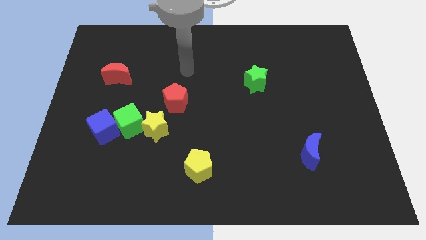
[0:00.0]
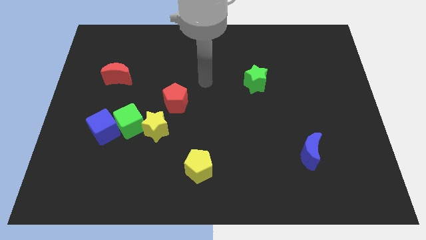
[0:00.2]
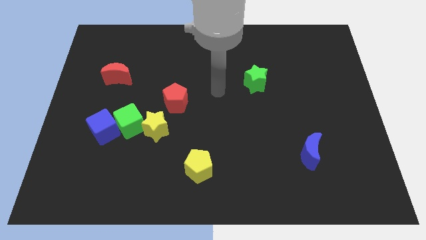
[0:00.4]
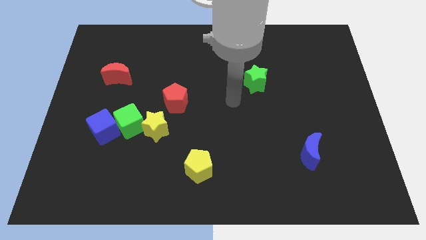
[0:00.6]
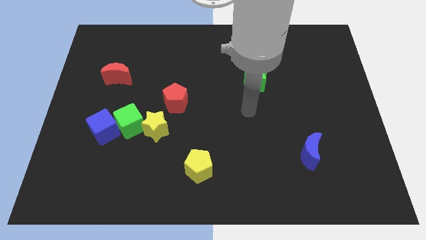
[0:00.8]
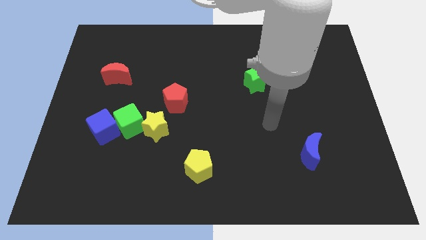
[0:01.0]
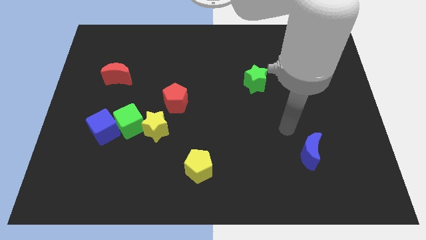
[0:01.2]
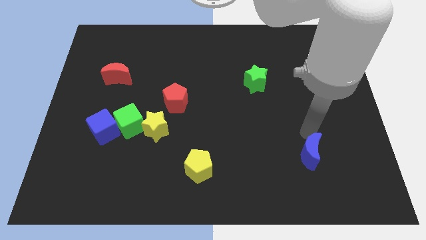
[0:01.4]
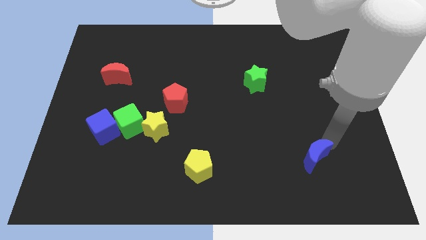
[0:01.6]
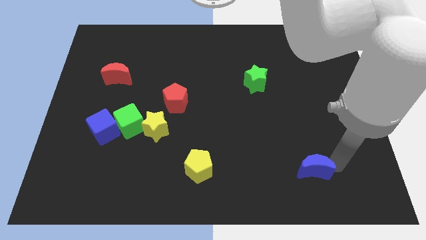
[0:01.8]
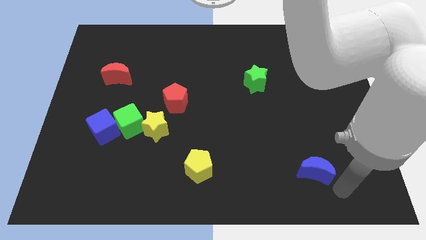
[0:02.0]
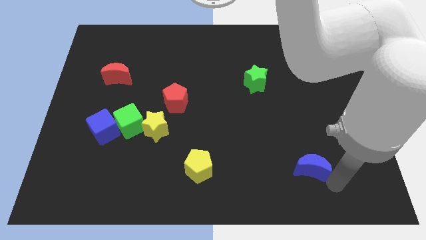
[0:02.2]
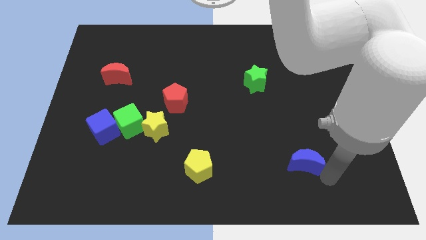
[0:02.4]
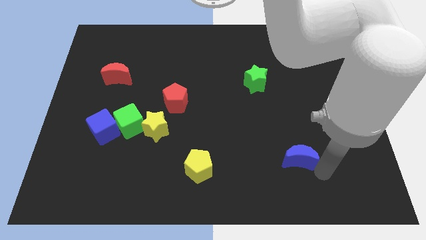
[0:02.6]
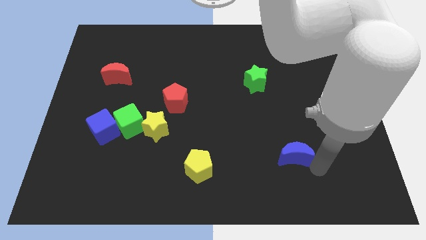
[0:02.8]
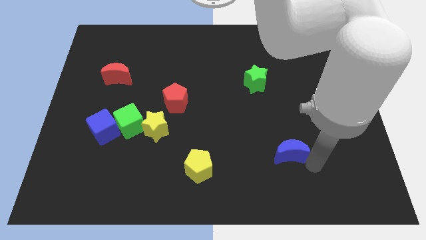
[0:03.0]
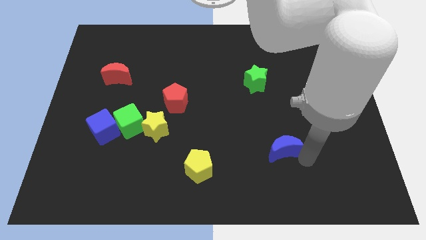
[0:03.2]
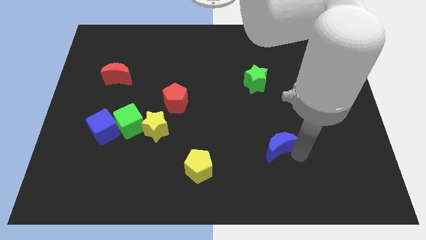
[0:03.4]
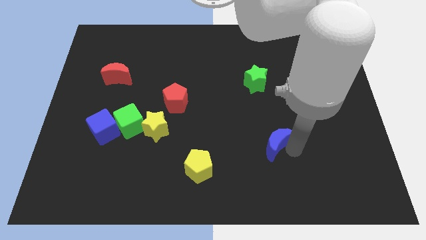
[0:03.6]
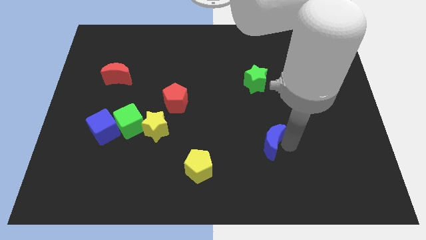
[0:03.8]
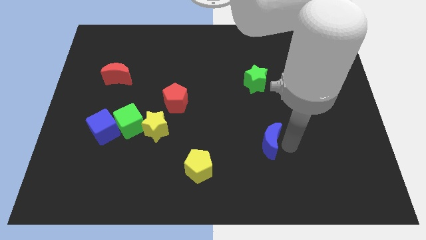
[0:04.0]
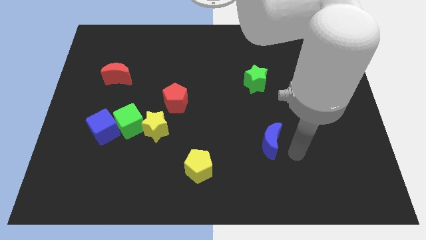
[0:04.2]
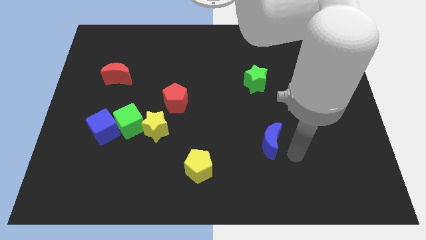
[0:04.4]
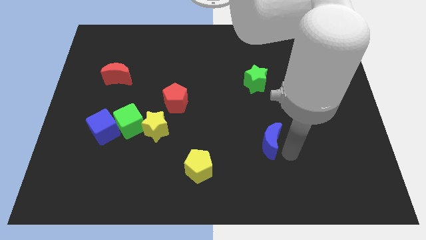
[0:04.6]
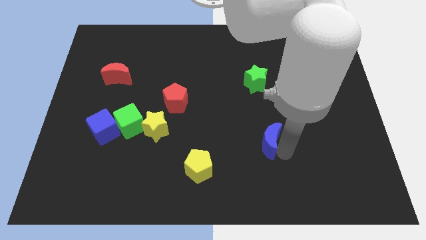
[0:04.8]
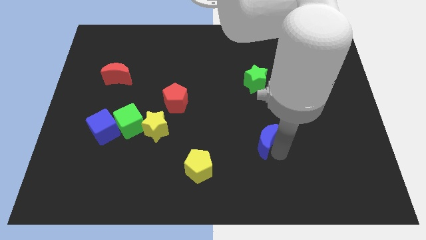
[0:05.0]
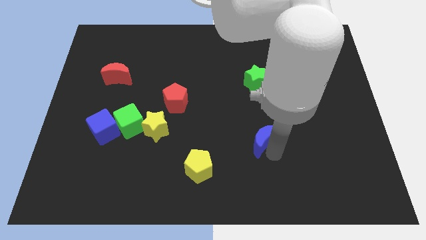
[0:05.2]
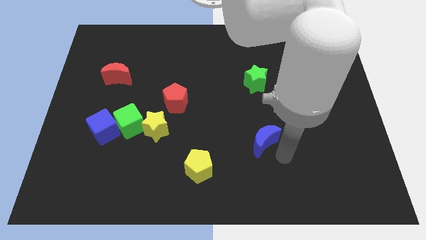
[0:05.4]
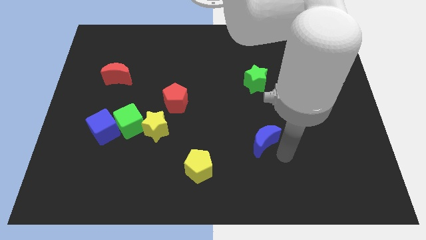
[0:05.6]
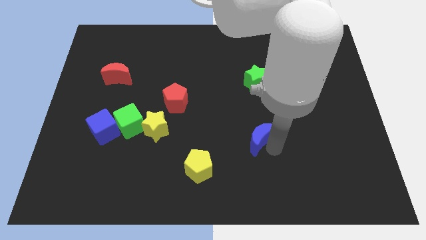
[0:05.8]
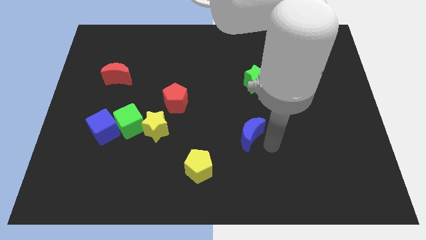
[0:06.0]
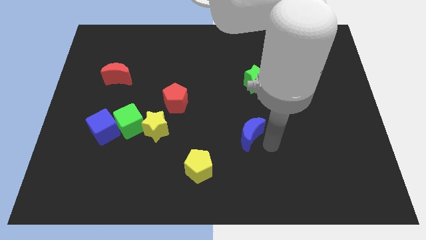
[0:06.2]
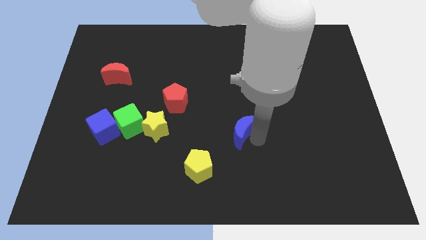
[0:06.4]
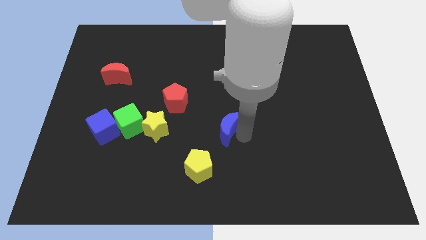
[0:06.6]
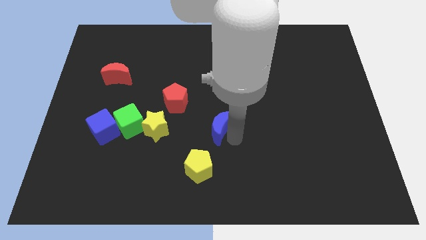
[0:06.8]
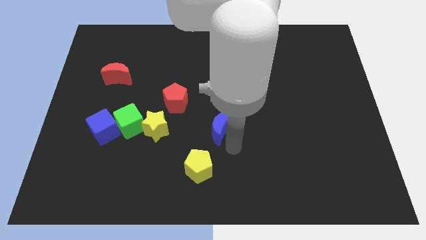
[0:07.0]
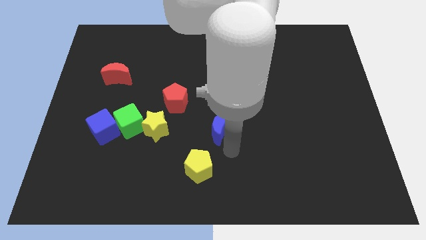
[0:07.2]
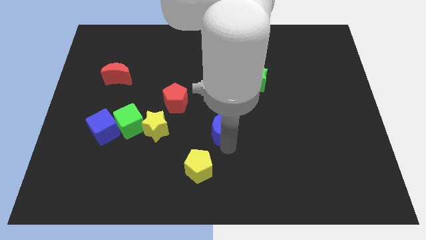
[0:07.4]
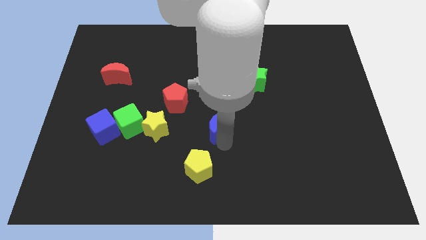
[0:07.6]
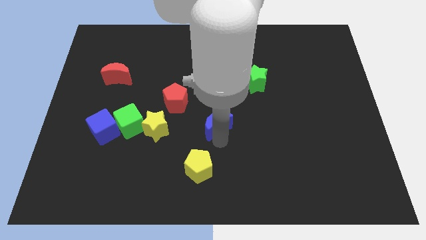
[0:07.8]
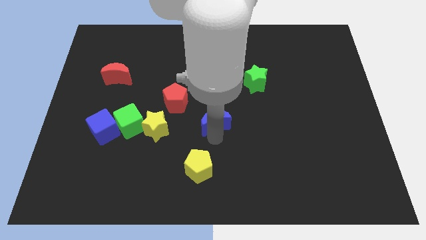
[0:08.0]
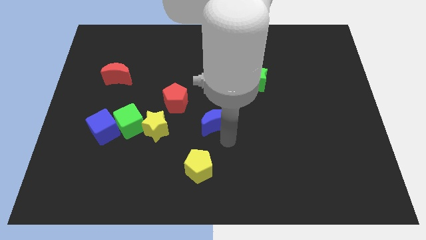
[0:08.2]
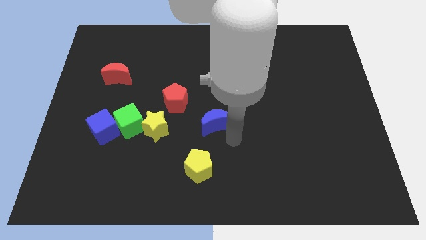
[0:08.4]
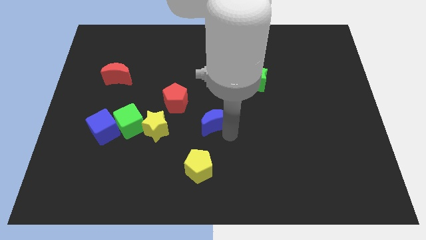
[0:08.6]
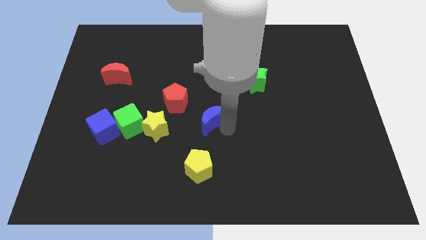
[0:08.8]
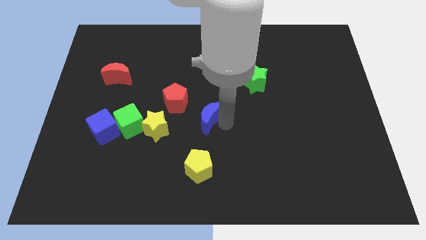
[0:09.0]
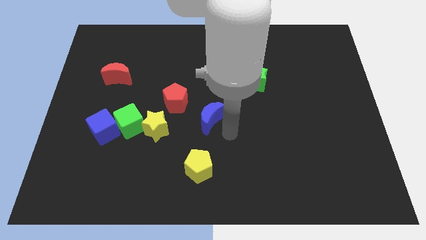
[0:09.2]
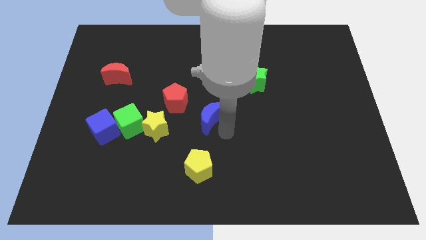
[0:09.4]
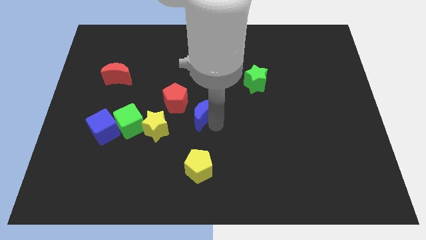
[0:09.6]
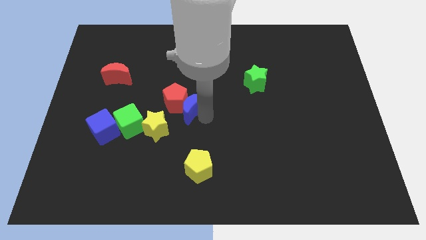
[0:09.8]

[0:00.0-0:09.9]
put the blue moon close to the red pentagon

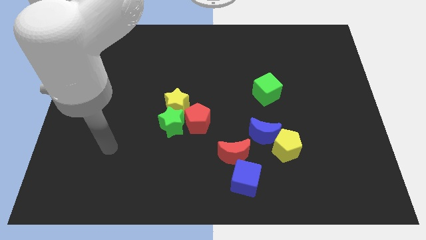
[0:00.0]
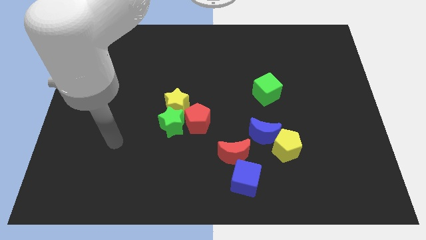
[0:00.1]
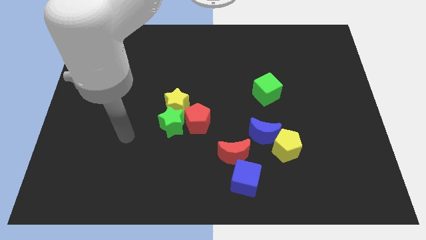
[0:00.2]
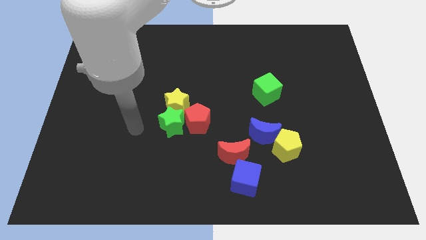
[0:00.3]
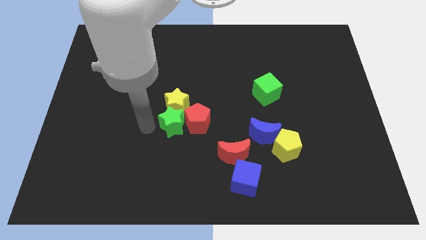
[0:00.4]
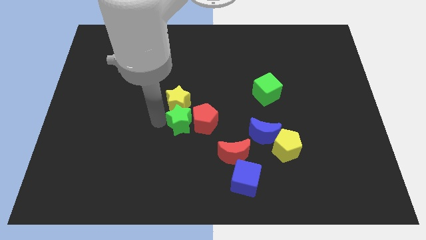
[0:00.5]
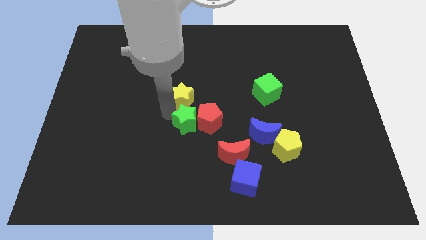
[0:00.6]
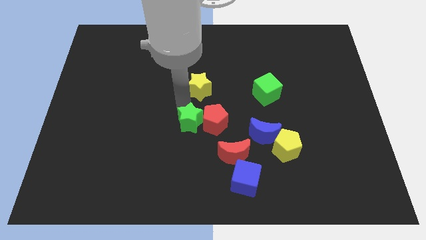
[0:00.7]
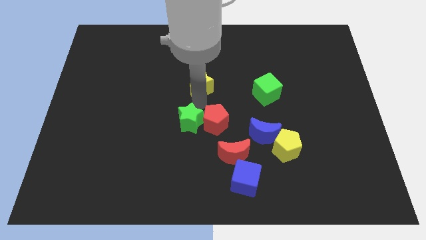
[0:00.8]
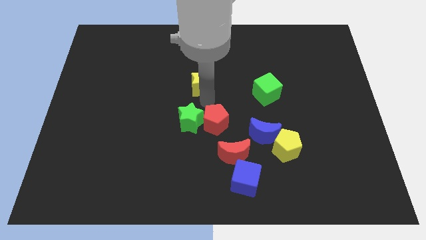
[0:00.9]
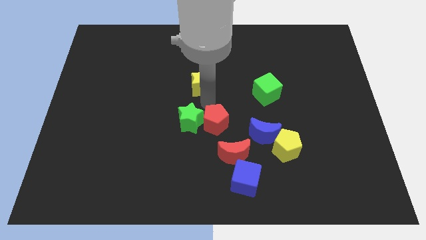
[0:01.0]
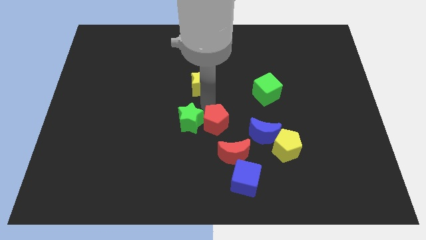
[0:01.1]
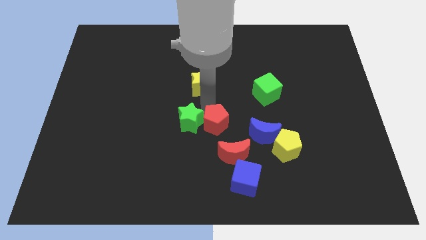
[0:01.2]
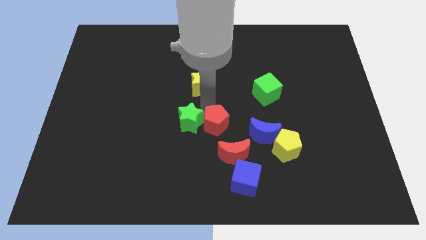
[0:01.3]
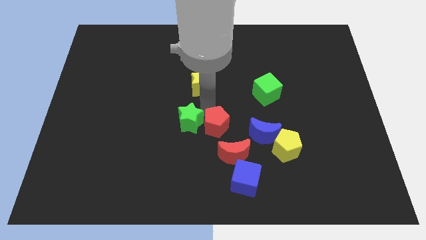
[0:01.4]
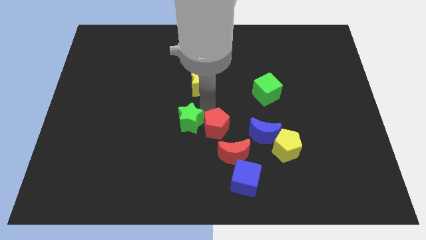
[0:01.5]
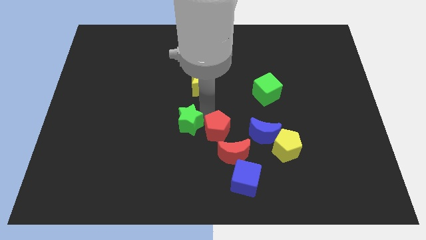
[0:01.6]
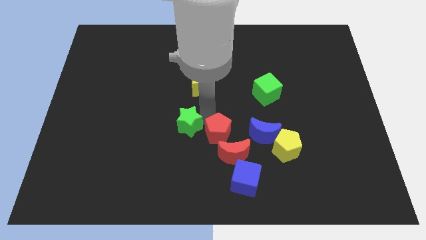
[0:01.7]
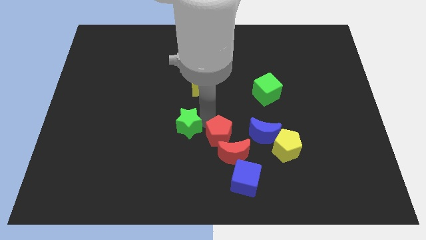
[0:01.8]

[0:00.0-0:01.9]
slide the red pentagon close to the red moon
